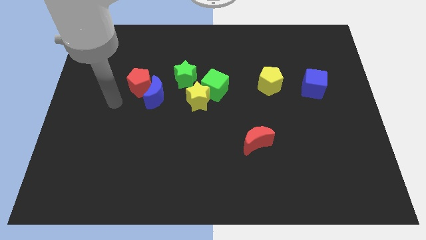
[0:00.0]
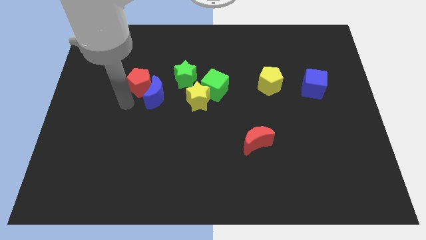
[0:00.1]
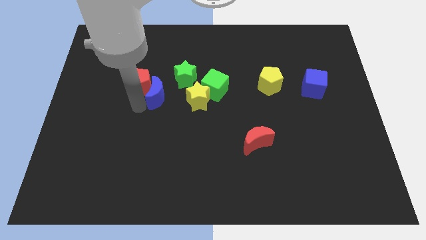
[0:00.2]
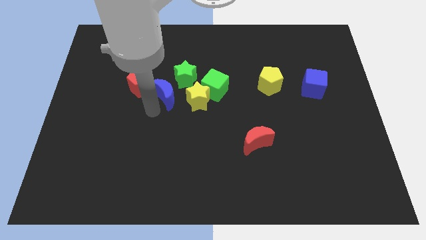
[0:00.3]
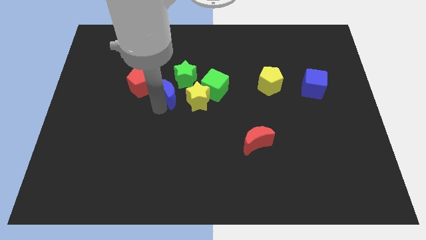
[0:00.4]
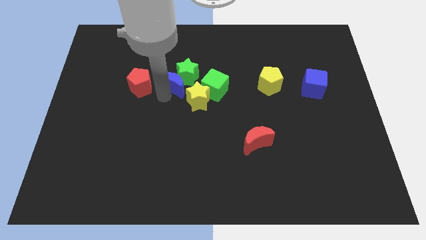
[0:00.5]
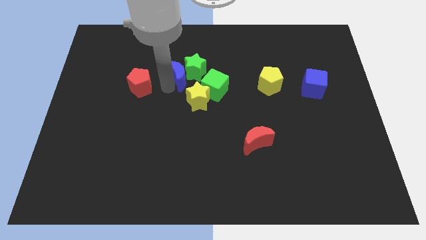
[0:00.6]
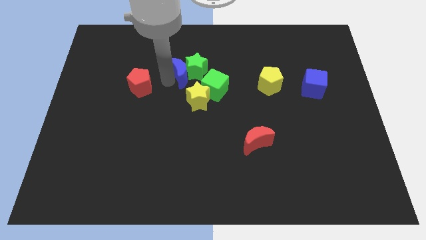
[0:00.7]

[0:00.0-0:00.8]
pull the red pentagon apart from the blue moon

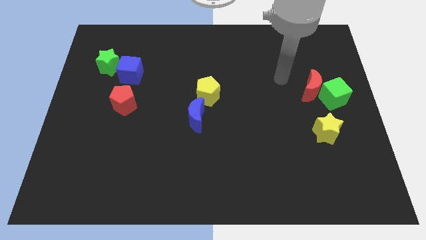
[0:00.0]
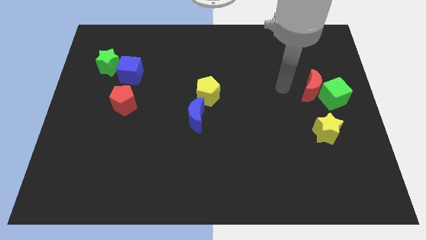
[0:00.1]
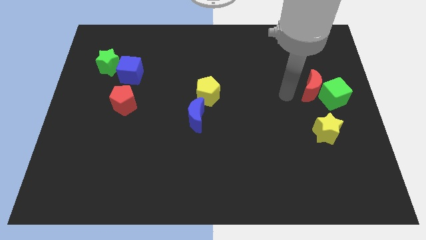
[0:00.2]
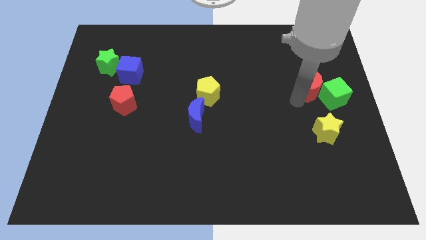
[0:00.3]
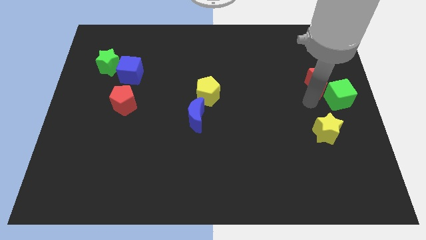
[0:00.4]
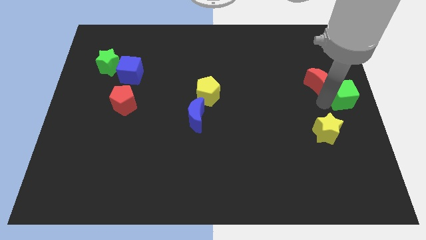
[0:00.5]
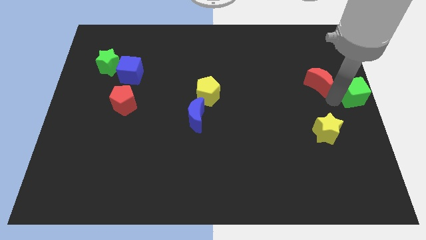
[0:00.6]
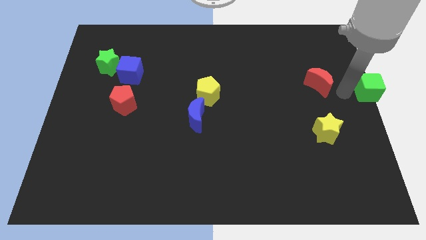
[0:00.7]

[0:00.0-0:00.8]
move the red moon away from the green cube

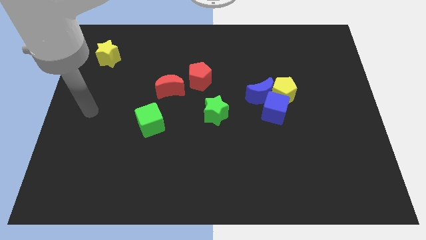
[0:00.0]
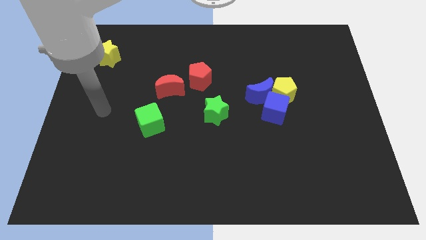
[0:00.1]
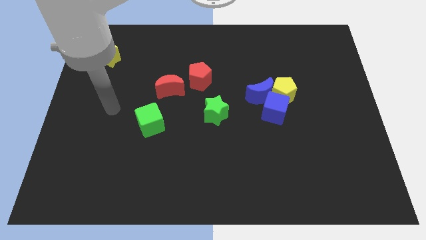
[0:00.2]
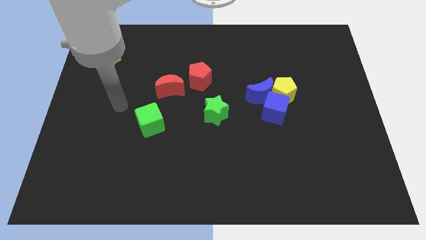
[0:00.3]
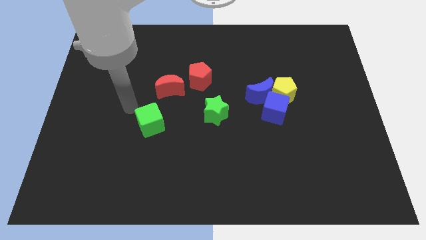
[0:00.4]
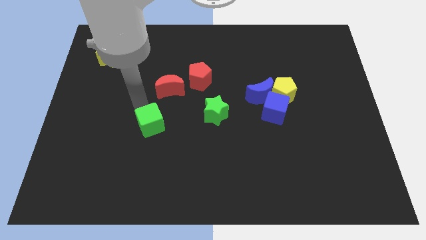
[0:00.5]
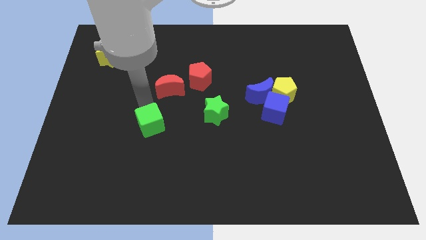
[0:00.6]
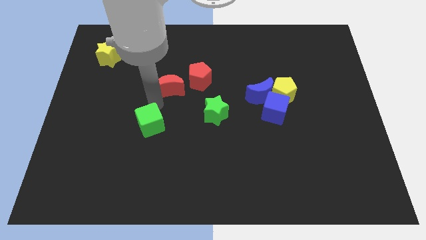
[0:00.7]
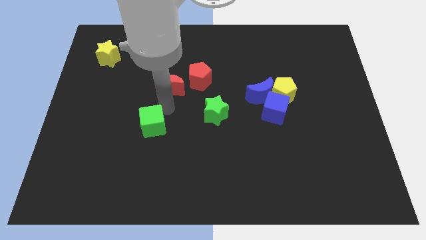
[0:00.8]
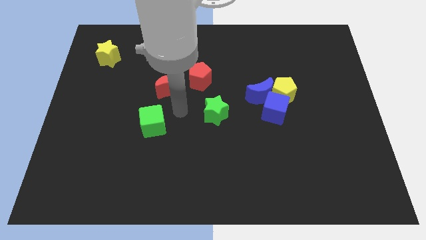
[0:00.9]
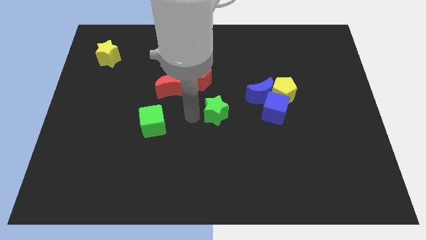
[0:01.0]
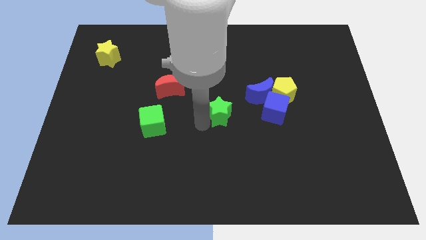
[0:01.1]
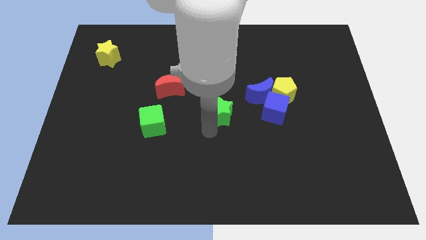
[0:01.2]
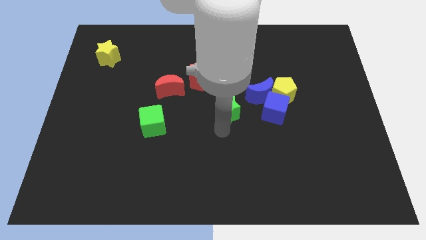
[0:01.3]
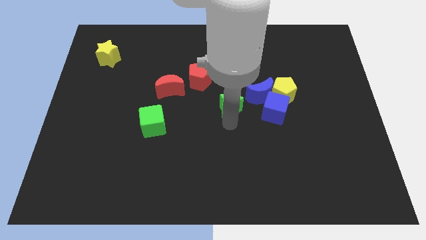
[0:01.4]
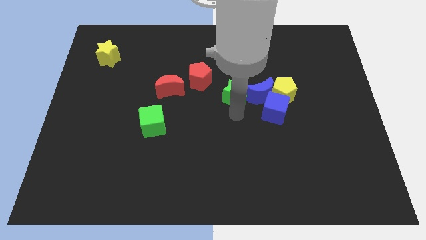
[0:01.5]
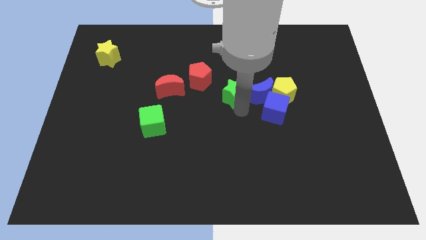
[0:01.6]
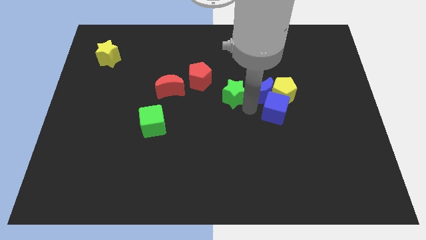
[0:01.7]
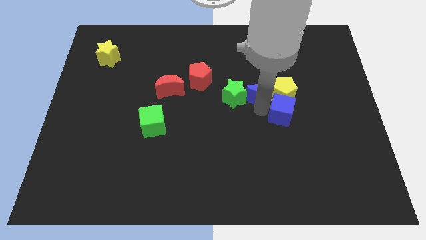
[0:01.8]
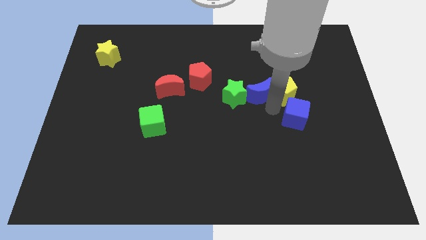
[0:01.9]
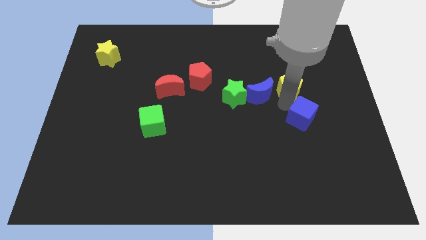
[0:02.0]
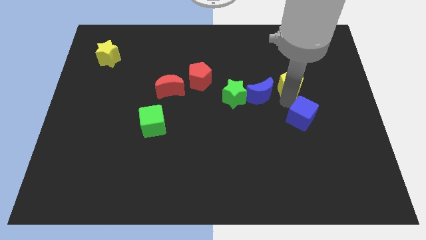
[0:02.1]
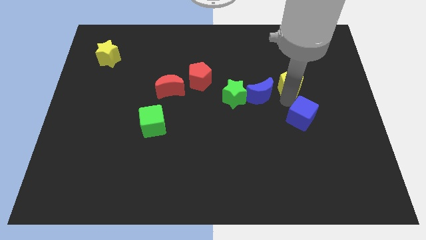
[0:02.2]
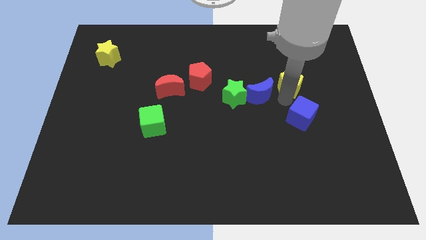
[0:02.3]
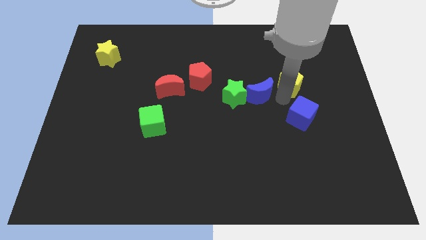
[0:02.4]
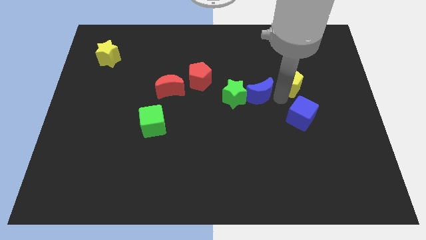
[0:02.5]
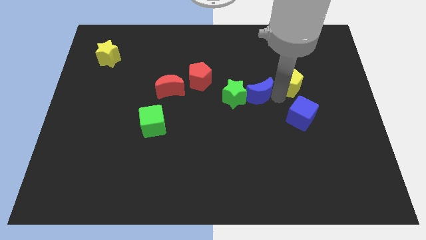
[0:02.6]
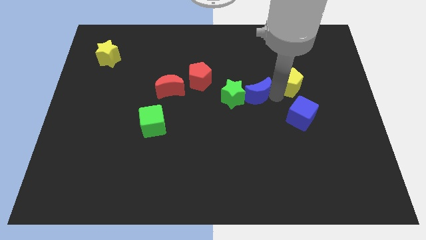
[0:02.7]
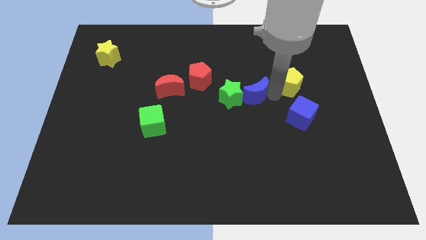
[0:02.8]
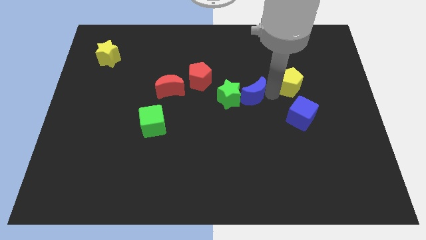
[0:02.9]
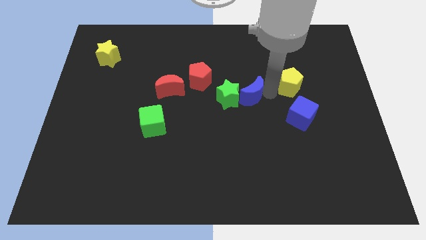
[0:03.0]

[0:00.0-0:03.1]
separate the blue moon from the yellow pentagon and blue cube

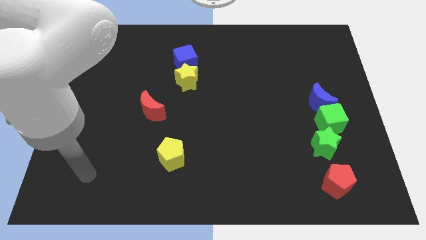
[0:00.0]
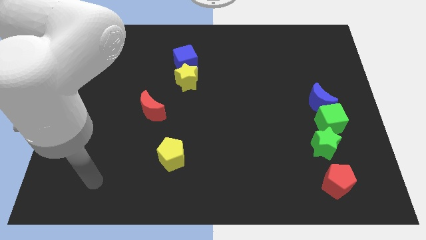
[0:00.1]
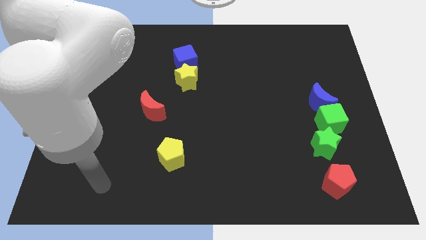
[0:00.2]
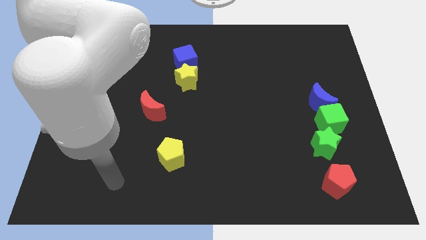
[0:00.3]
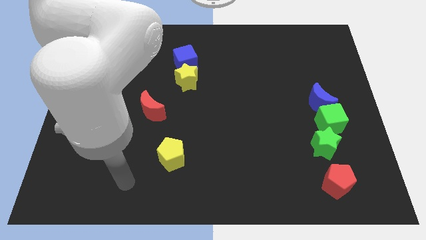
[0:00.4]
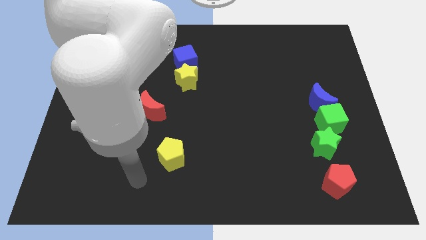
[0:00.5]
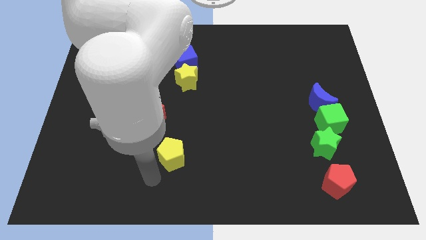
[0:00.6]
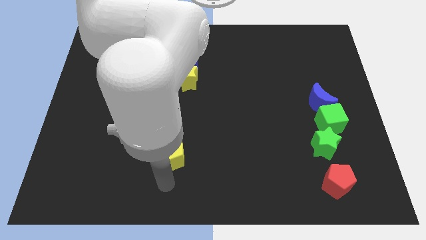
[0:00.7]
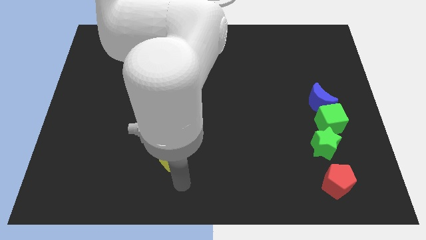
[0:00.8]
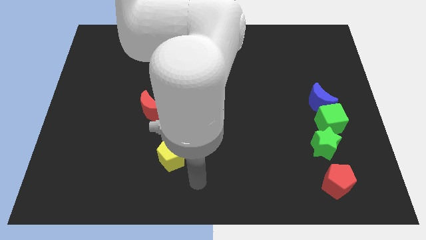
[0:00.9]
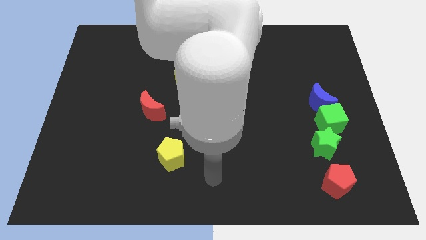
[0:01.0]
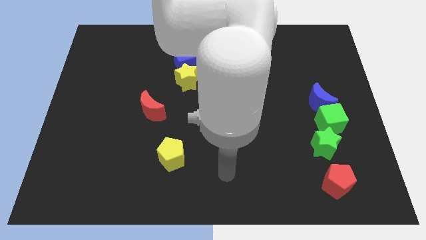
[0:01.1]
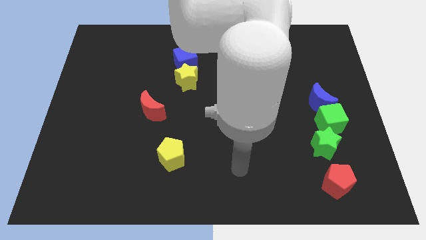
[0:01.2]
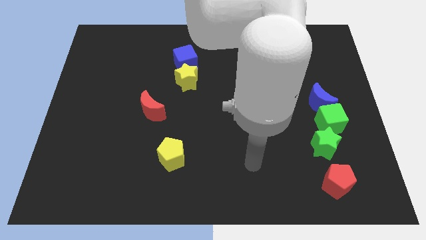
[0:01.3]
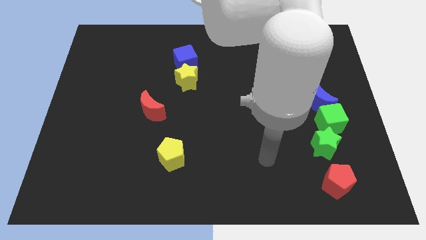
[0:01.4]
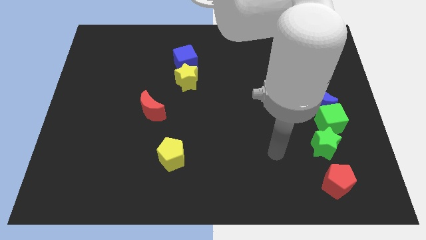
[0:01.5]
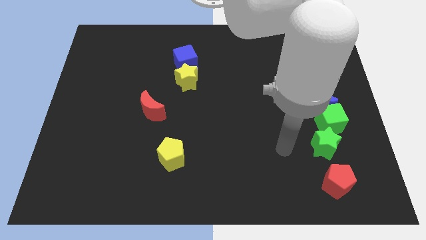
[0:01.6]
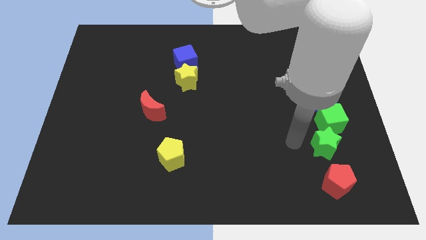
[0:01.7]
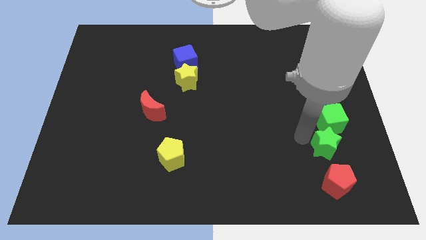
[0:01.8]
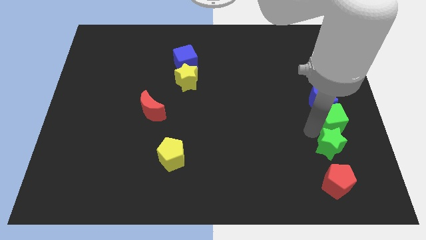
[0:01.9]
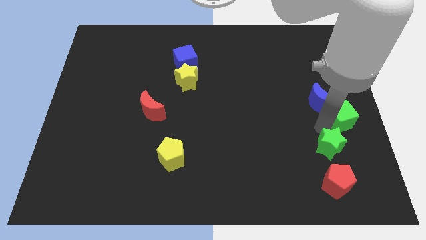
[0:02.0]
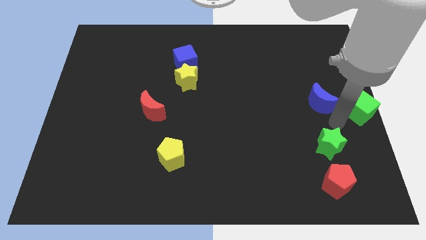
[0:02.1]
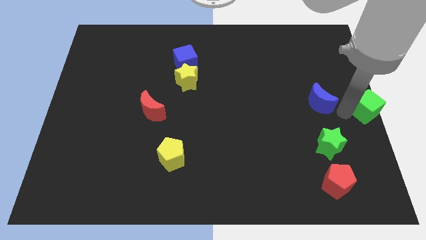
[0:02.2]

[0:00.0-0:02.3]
pull the blue moon apart from the green cube

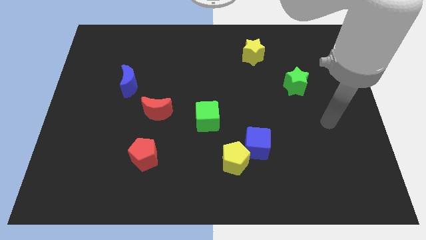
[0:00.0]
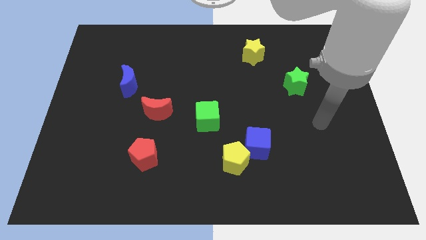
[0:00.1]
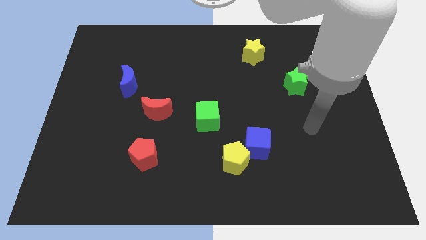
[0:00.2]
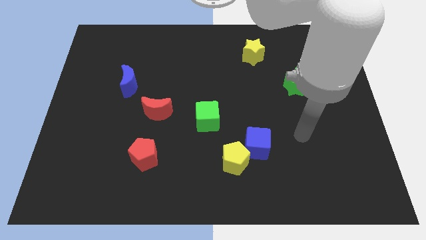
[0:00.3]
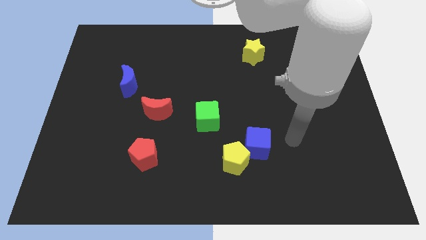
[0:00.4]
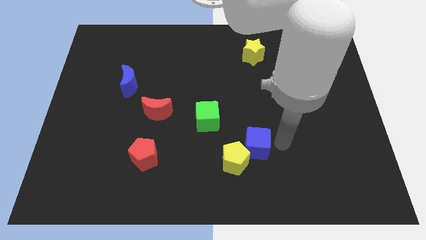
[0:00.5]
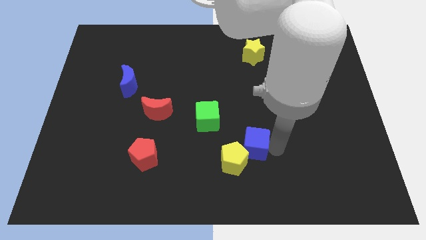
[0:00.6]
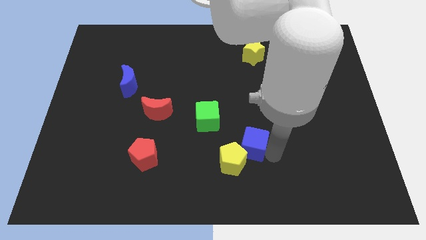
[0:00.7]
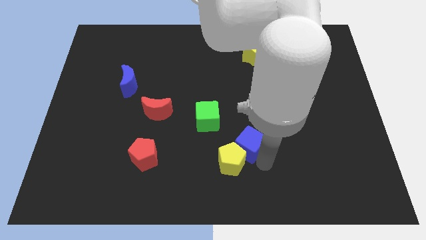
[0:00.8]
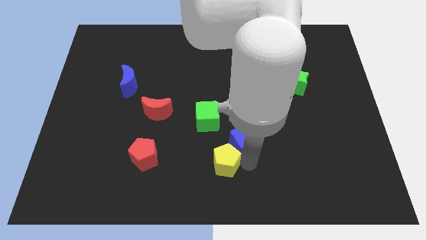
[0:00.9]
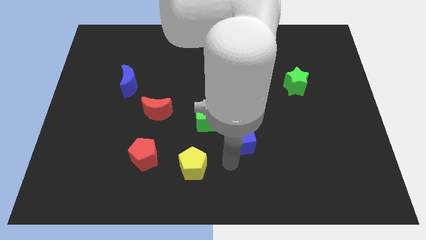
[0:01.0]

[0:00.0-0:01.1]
separate the blue cube from the yellow pentagon

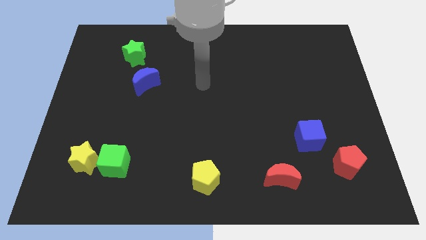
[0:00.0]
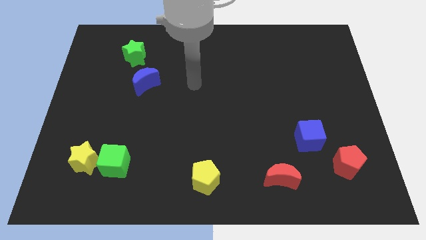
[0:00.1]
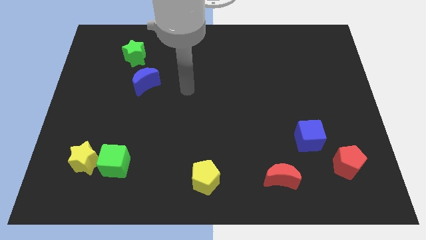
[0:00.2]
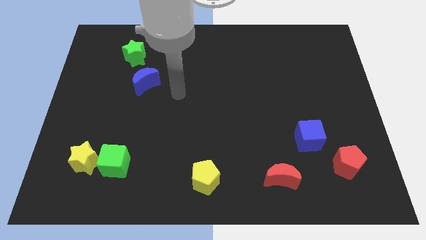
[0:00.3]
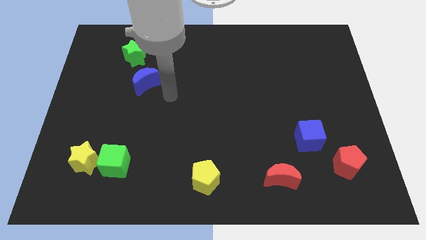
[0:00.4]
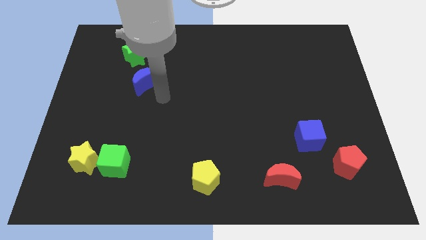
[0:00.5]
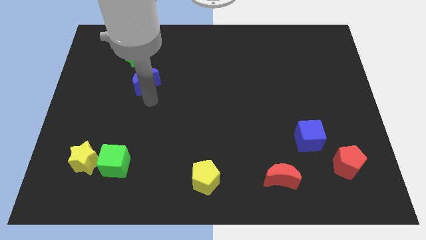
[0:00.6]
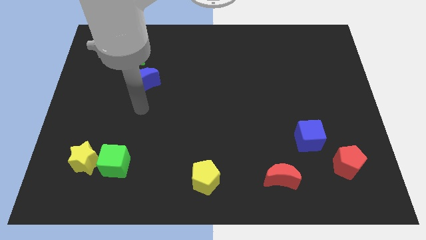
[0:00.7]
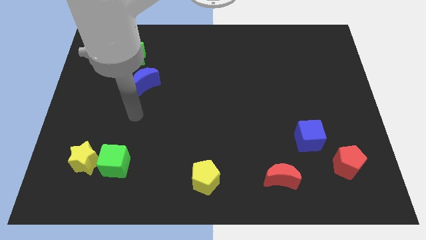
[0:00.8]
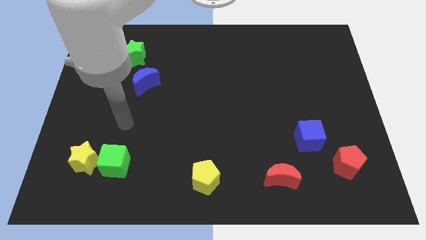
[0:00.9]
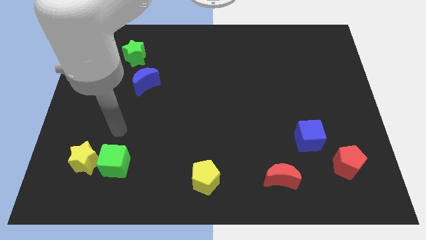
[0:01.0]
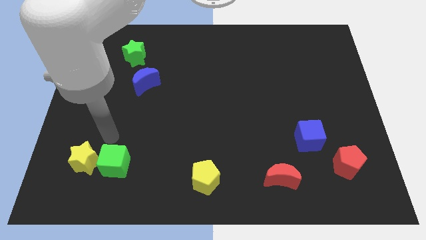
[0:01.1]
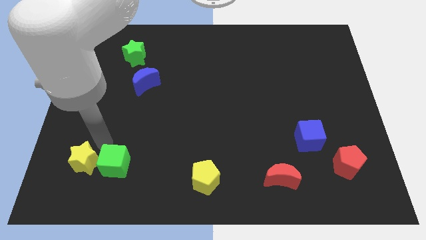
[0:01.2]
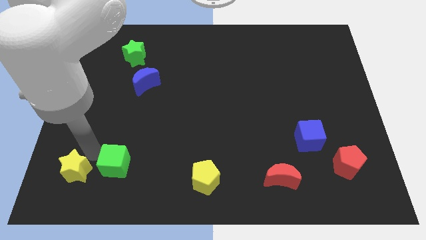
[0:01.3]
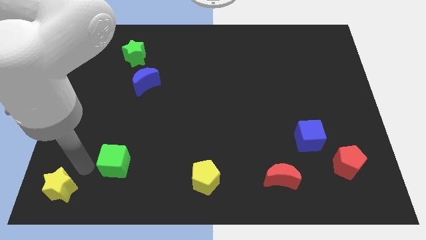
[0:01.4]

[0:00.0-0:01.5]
move the green cube away from the yellow star
